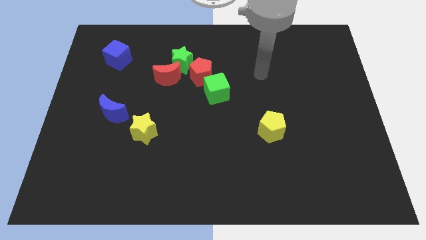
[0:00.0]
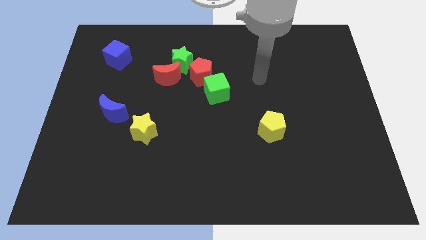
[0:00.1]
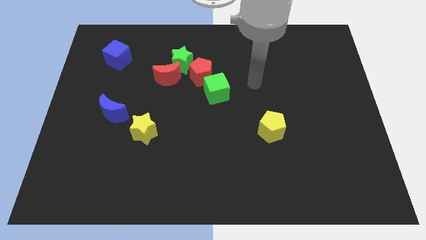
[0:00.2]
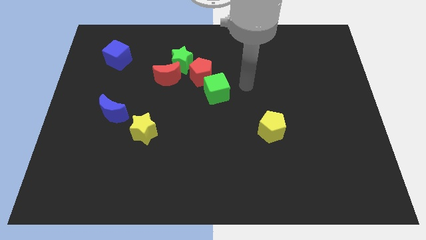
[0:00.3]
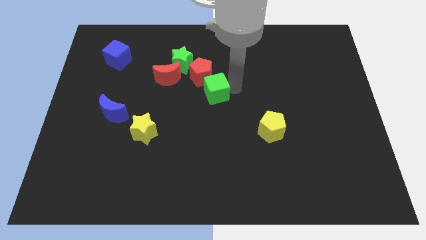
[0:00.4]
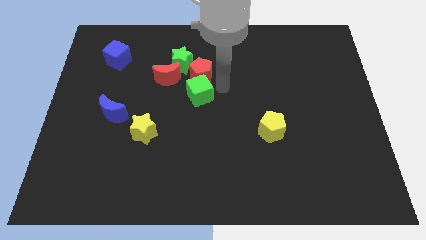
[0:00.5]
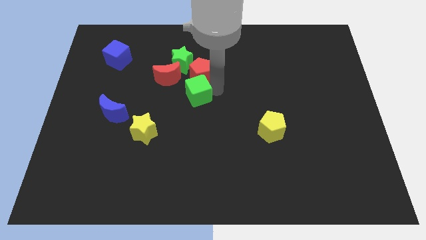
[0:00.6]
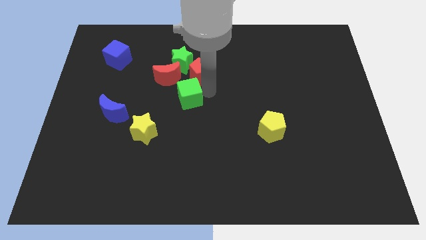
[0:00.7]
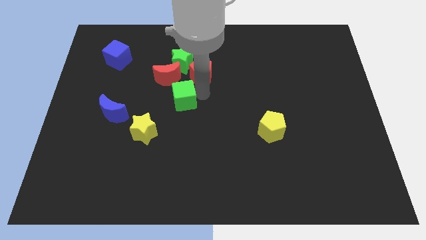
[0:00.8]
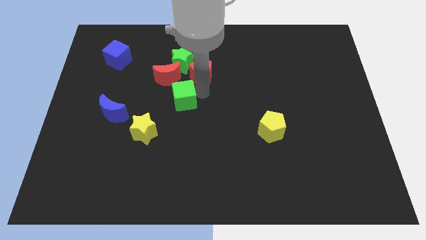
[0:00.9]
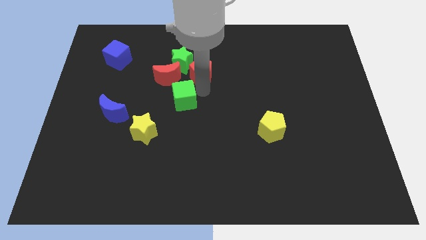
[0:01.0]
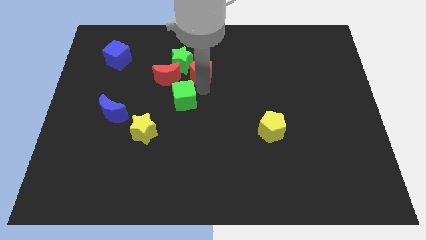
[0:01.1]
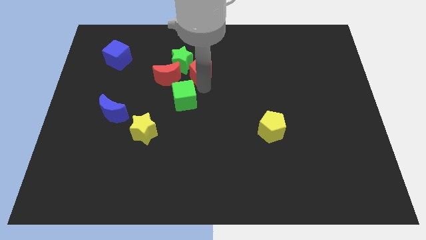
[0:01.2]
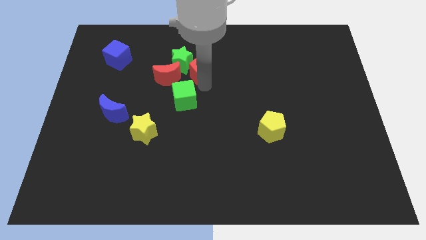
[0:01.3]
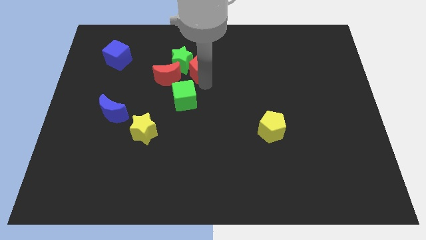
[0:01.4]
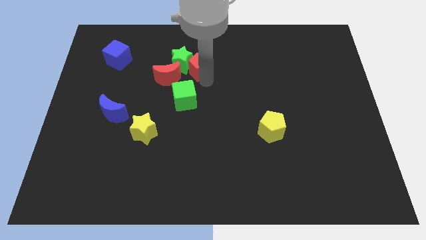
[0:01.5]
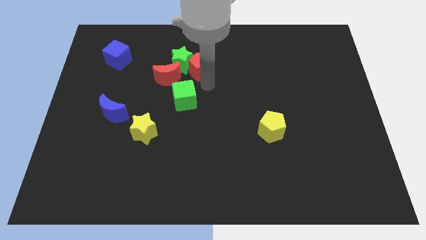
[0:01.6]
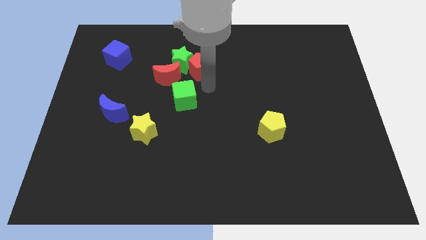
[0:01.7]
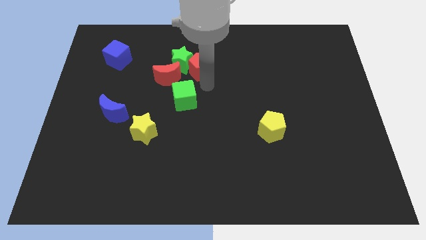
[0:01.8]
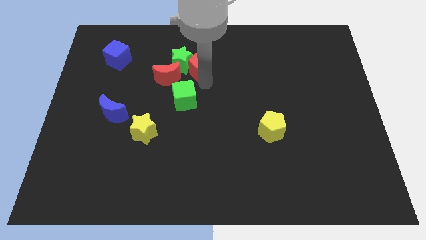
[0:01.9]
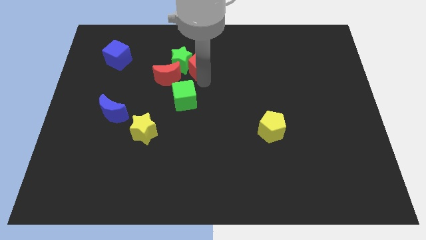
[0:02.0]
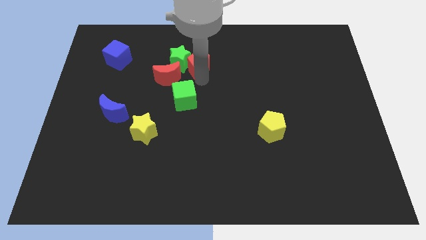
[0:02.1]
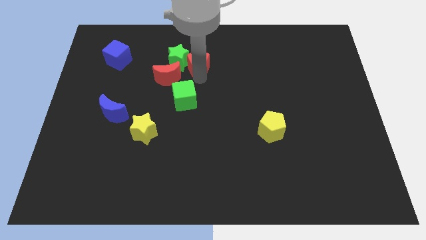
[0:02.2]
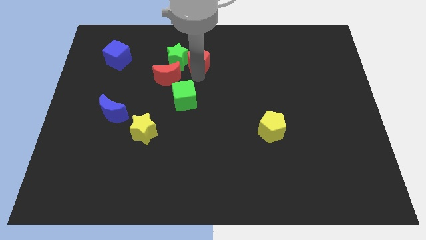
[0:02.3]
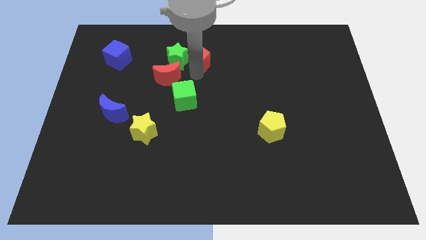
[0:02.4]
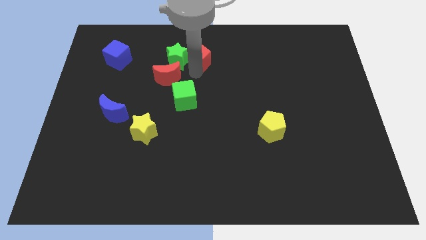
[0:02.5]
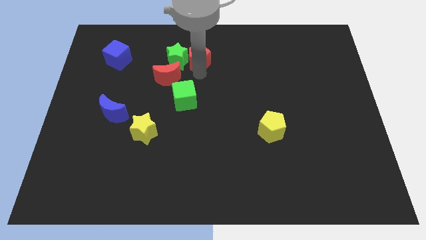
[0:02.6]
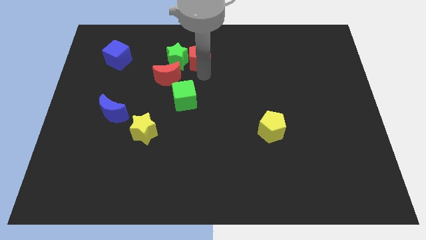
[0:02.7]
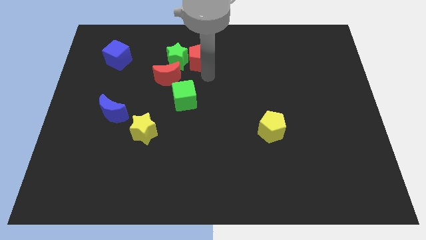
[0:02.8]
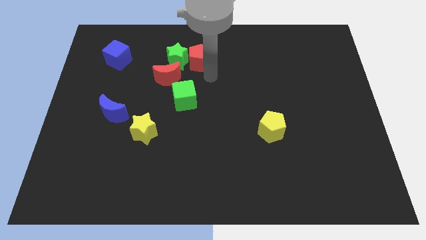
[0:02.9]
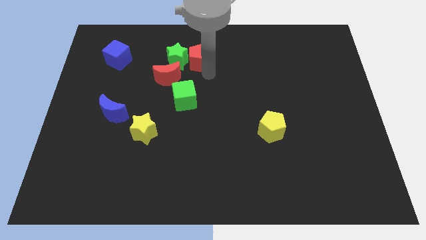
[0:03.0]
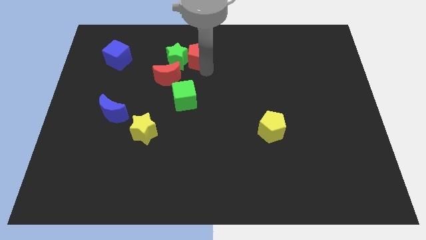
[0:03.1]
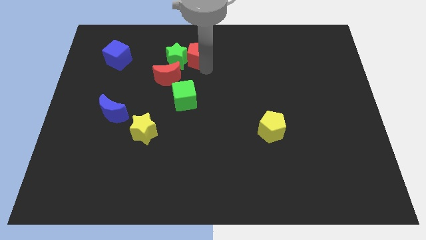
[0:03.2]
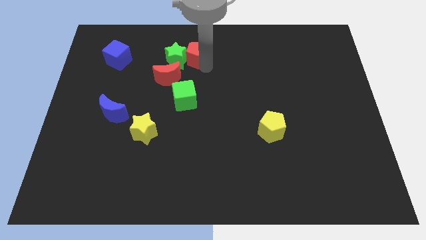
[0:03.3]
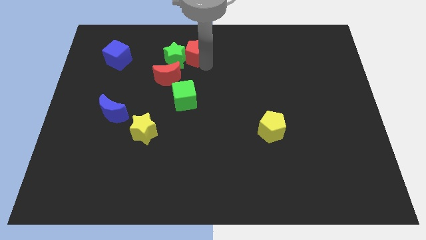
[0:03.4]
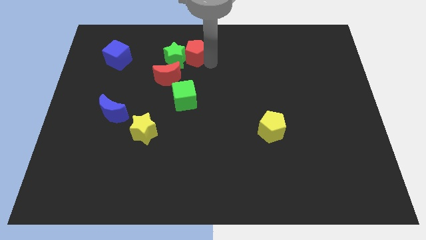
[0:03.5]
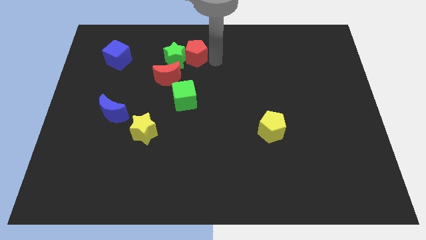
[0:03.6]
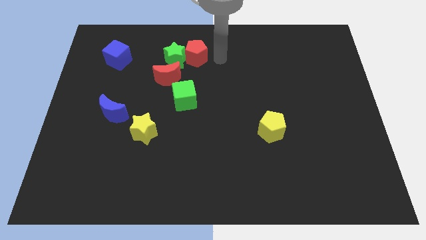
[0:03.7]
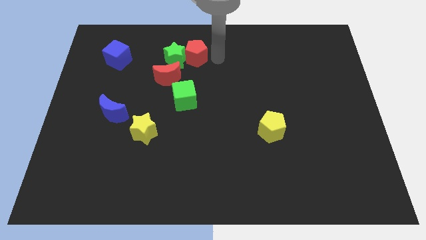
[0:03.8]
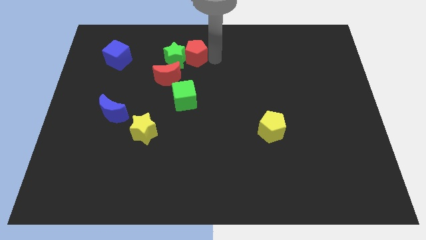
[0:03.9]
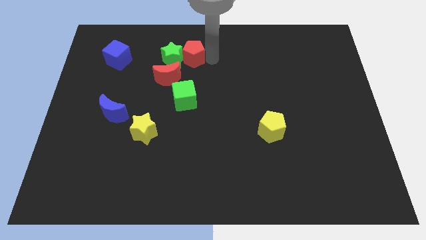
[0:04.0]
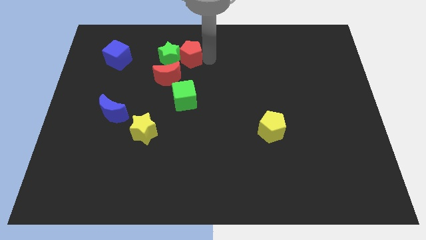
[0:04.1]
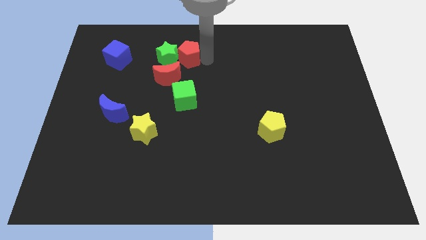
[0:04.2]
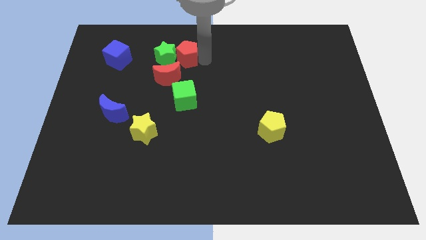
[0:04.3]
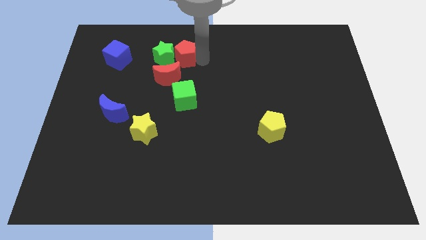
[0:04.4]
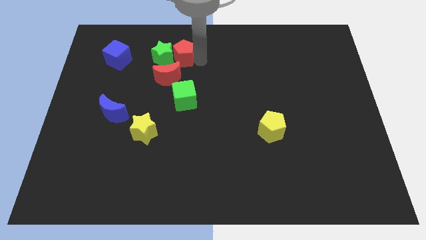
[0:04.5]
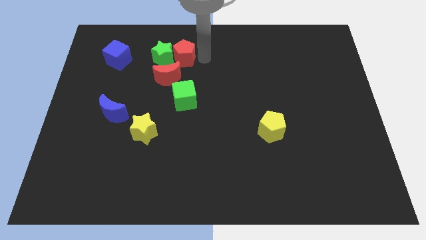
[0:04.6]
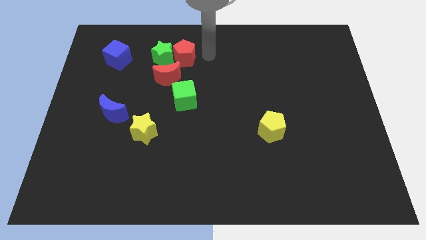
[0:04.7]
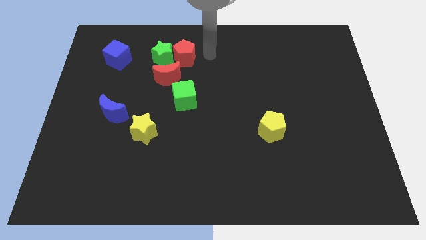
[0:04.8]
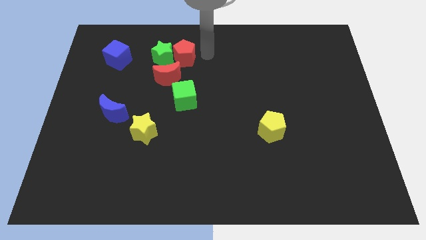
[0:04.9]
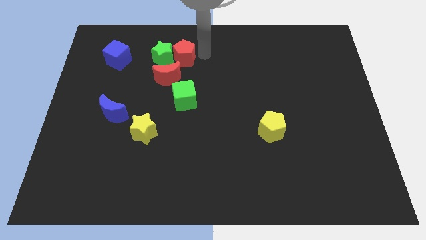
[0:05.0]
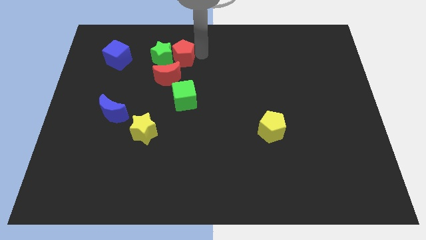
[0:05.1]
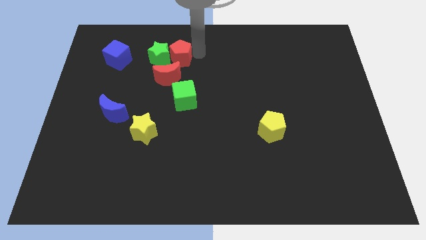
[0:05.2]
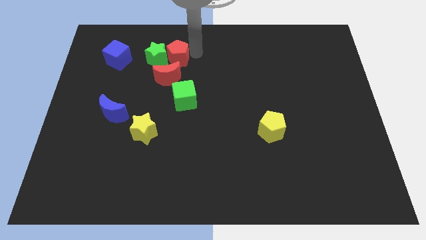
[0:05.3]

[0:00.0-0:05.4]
slide the red pentagon just right of the blue cube
